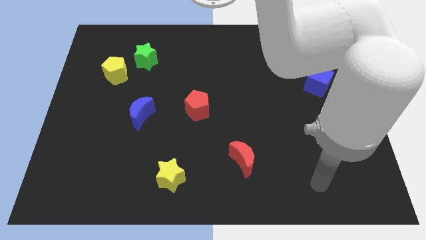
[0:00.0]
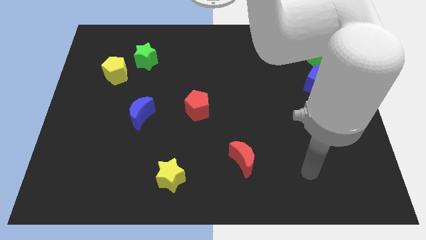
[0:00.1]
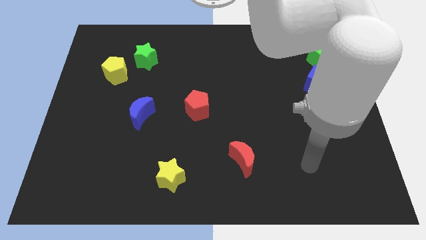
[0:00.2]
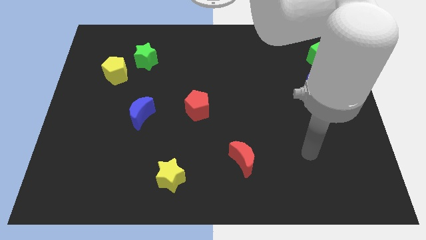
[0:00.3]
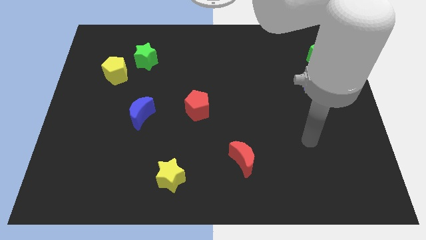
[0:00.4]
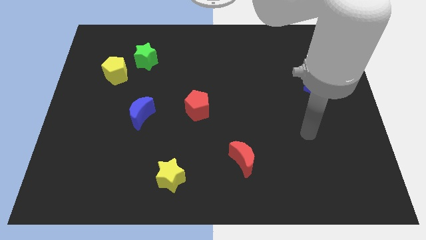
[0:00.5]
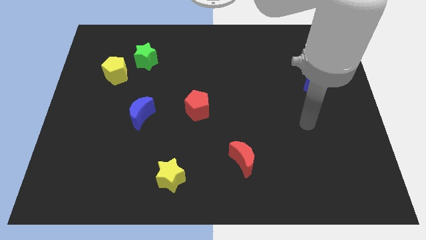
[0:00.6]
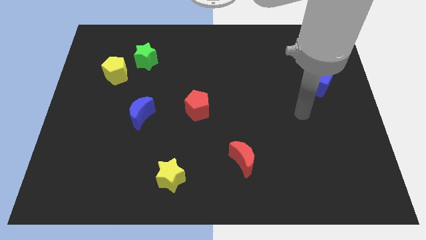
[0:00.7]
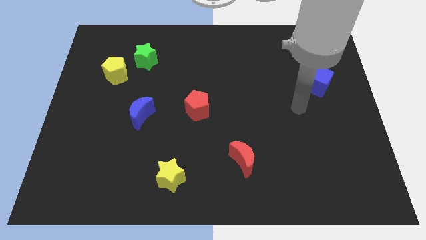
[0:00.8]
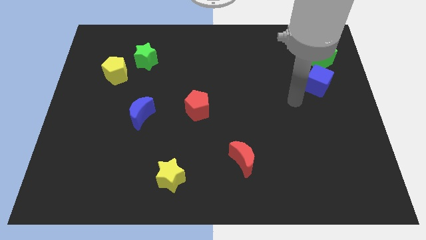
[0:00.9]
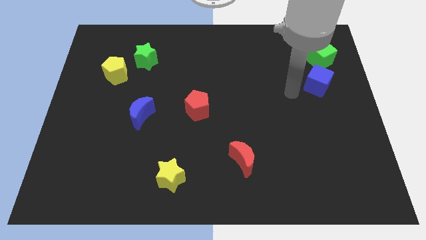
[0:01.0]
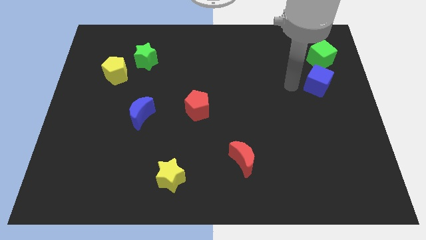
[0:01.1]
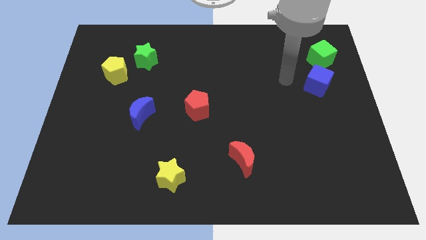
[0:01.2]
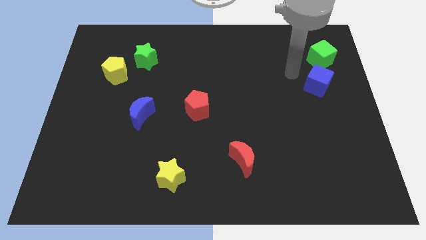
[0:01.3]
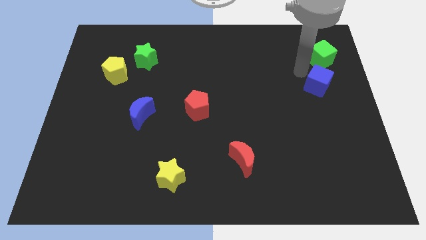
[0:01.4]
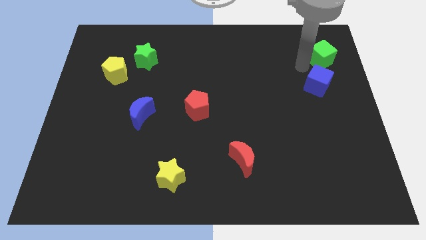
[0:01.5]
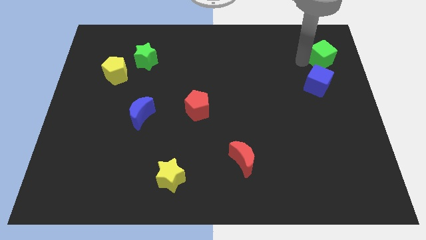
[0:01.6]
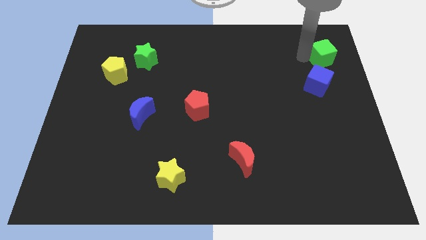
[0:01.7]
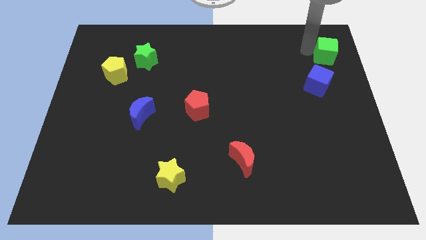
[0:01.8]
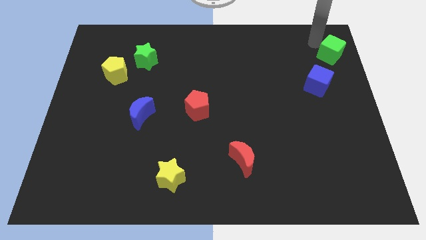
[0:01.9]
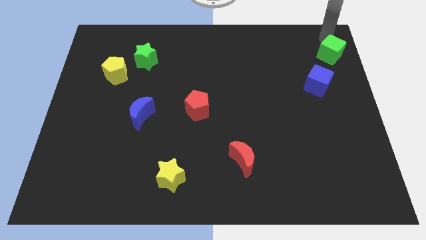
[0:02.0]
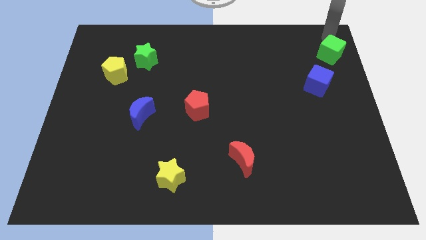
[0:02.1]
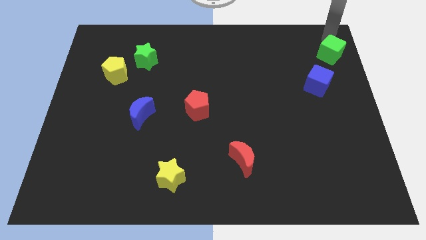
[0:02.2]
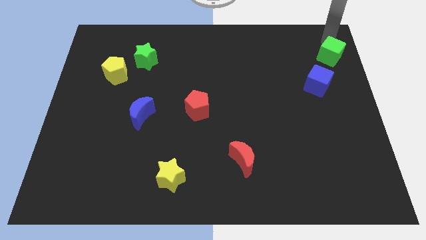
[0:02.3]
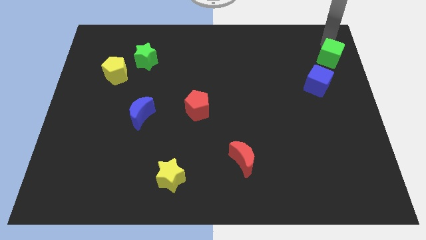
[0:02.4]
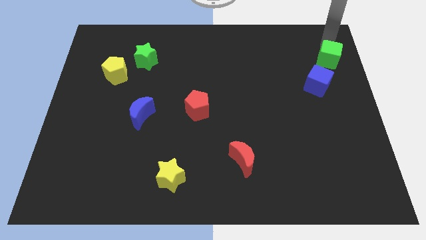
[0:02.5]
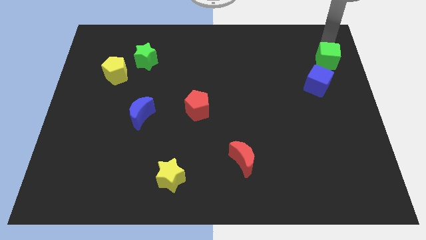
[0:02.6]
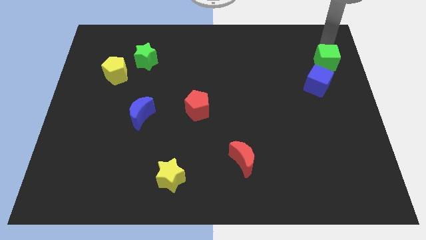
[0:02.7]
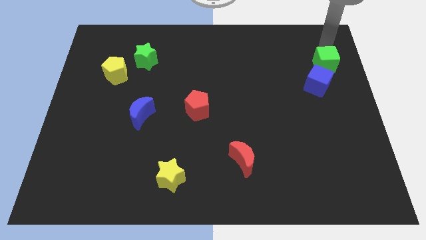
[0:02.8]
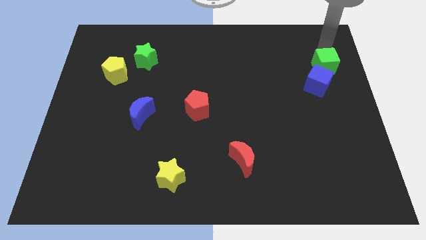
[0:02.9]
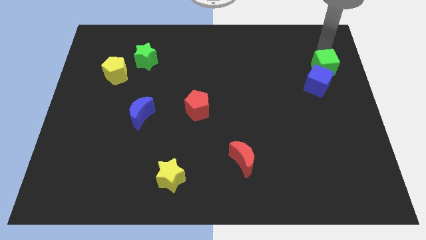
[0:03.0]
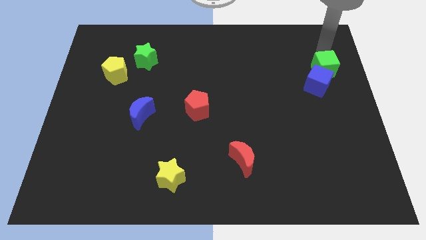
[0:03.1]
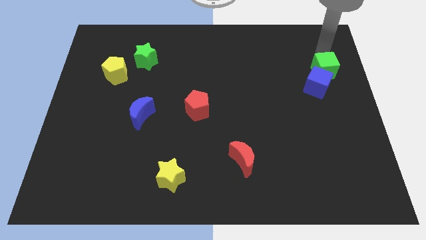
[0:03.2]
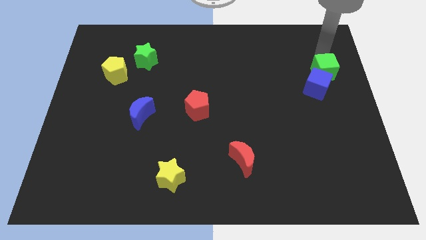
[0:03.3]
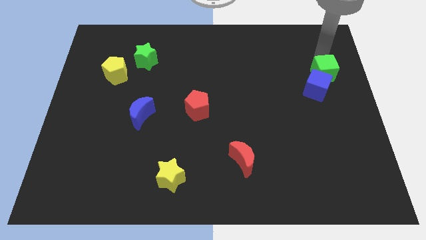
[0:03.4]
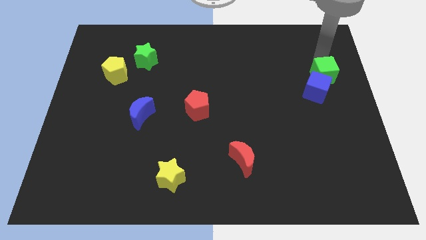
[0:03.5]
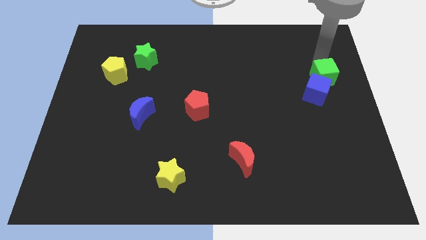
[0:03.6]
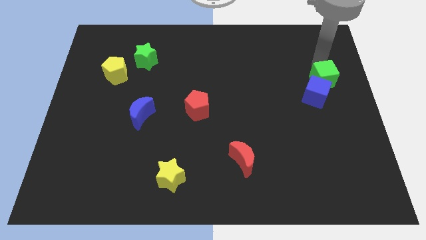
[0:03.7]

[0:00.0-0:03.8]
slide the green cube somewhat down

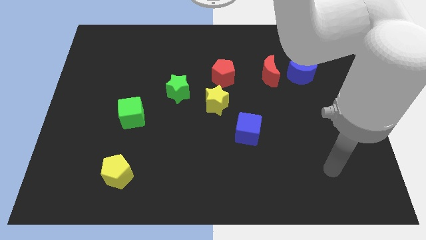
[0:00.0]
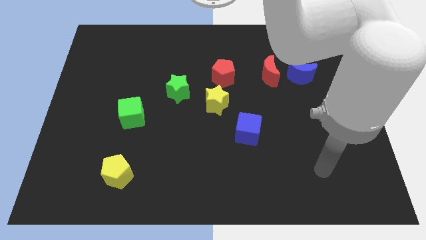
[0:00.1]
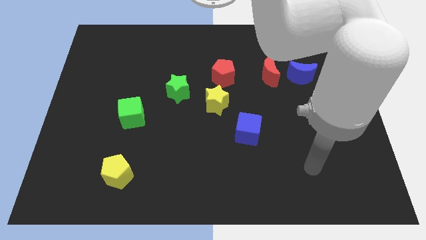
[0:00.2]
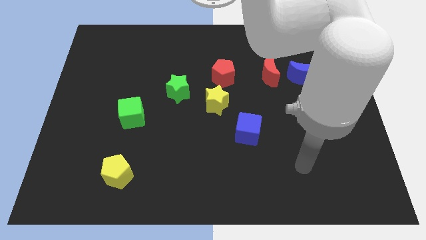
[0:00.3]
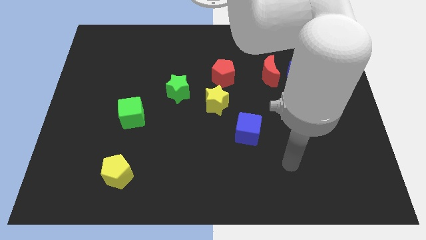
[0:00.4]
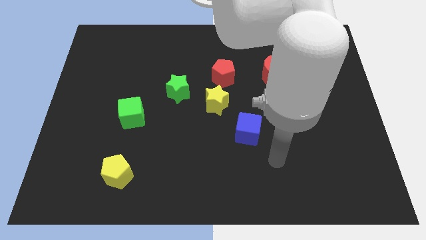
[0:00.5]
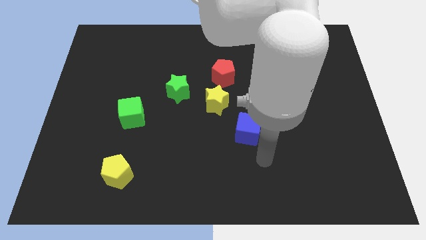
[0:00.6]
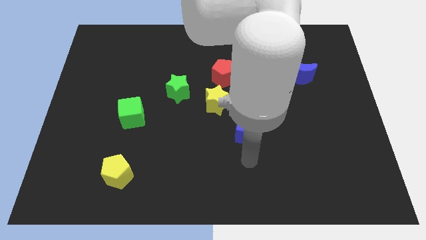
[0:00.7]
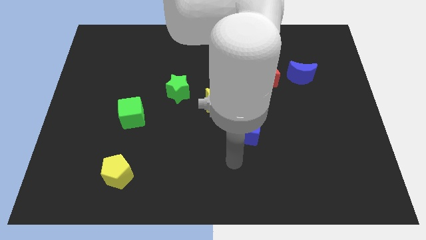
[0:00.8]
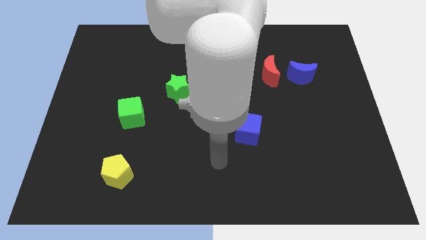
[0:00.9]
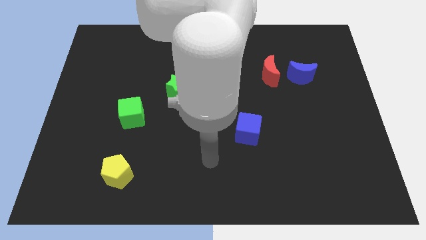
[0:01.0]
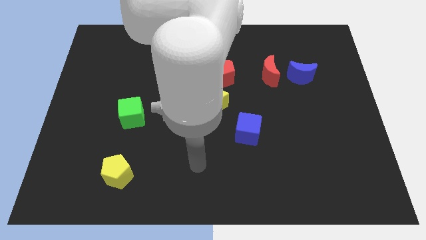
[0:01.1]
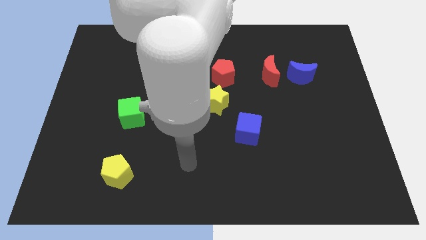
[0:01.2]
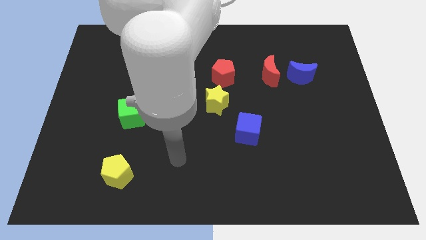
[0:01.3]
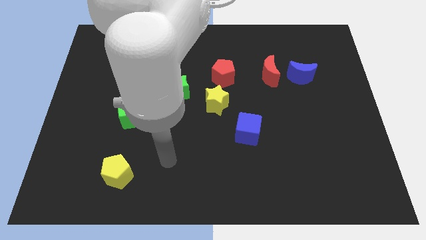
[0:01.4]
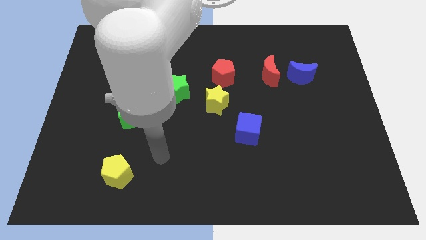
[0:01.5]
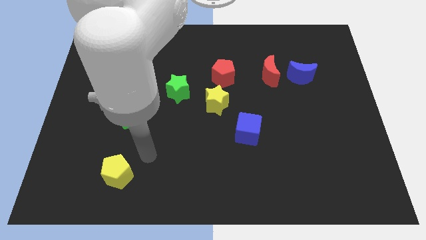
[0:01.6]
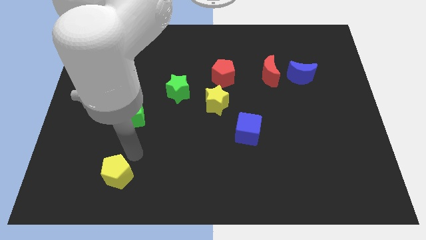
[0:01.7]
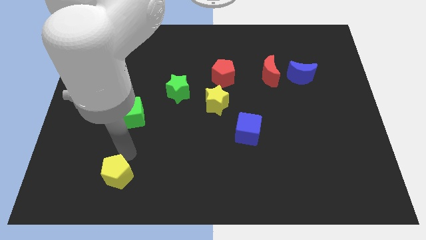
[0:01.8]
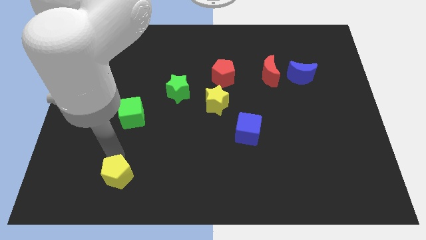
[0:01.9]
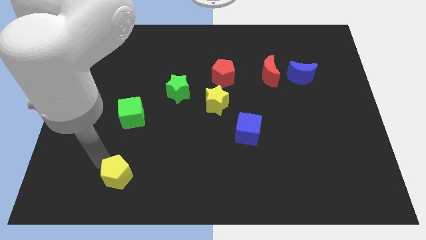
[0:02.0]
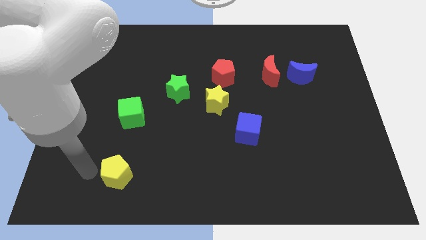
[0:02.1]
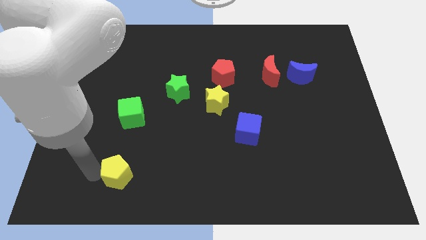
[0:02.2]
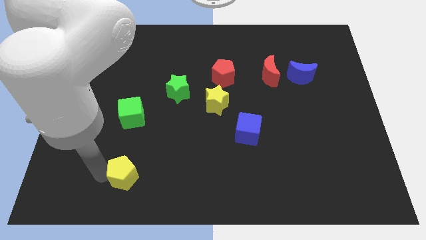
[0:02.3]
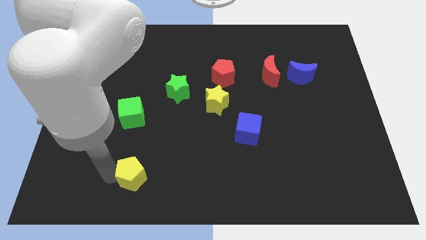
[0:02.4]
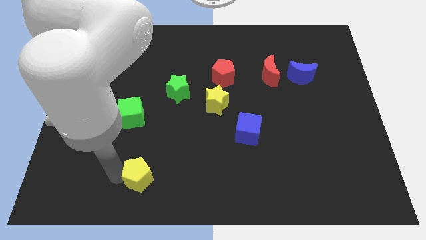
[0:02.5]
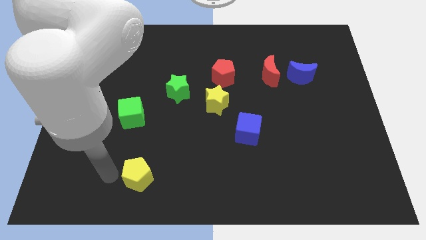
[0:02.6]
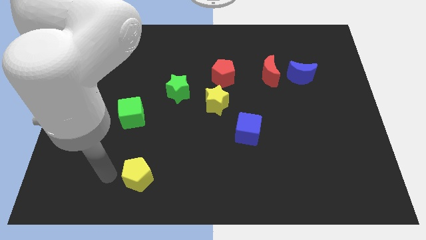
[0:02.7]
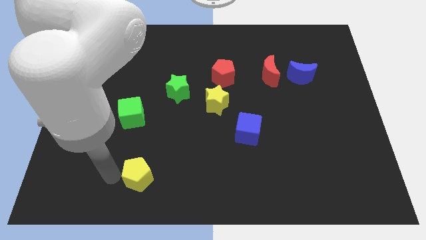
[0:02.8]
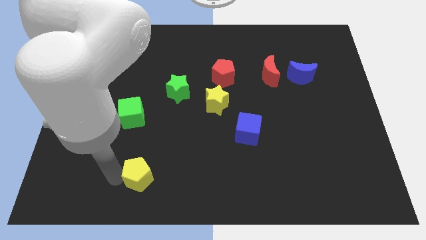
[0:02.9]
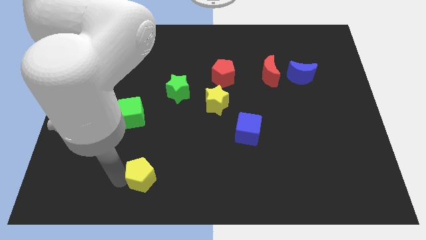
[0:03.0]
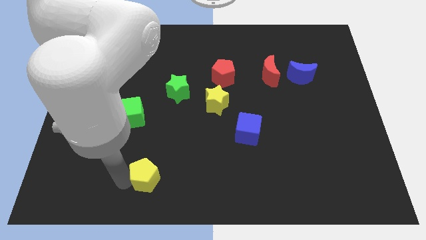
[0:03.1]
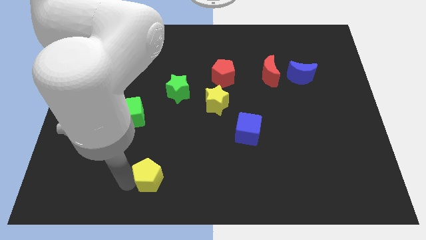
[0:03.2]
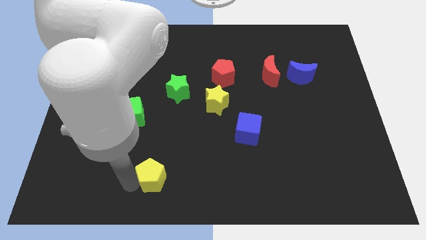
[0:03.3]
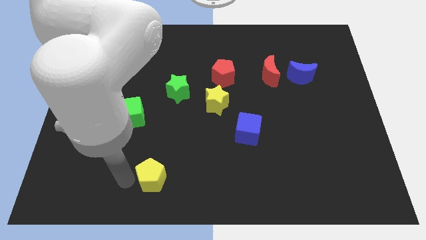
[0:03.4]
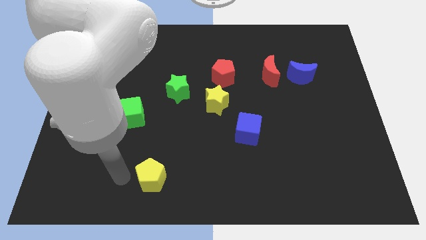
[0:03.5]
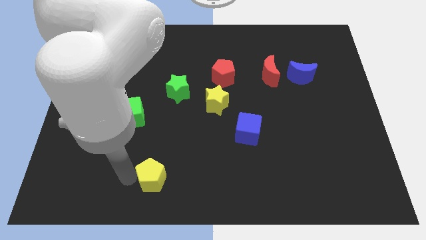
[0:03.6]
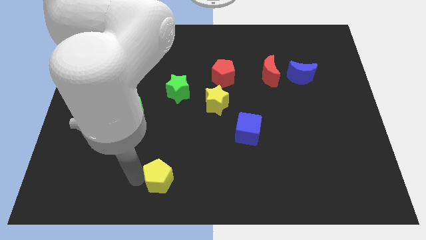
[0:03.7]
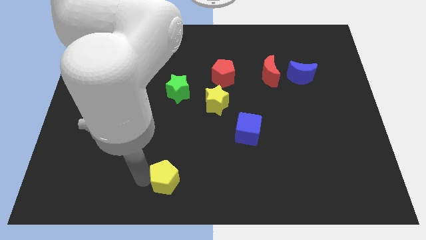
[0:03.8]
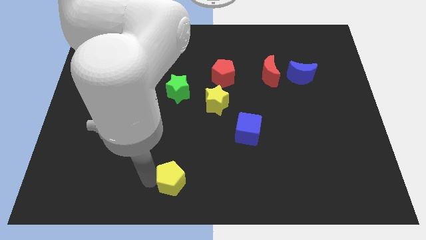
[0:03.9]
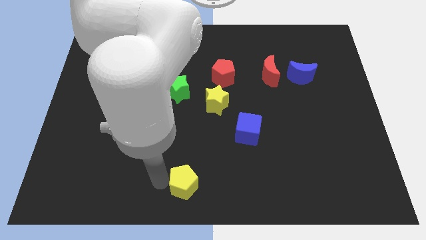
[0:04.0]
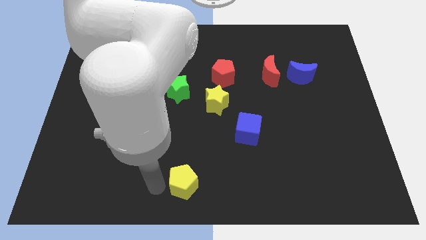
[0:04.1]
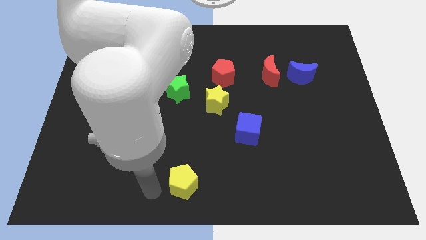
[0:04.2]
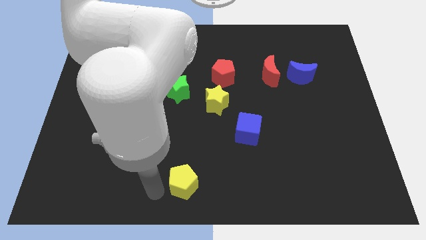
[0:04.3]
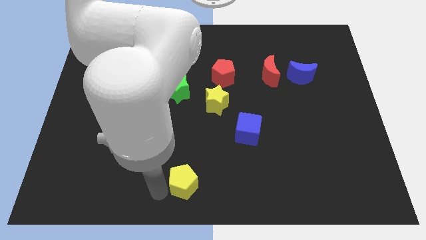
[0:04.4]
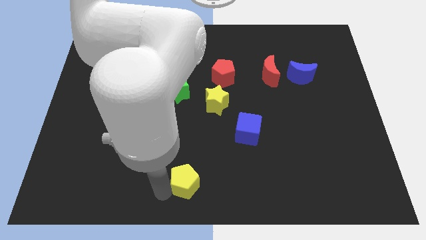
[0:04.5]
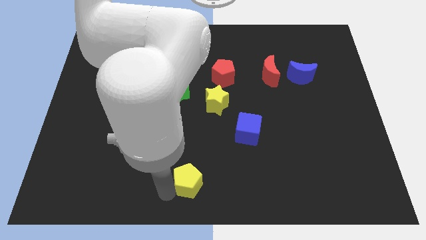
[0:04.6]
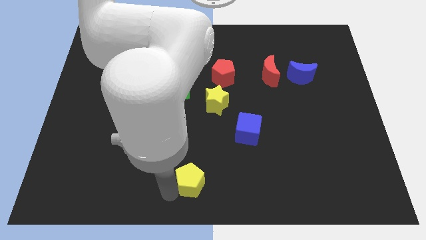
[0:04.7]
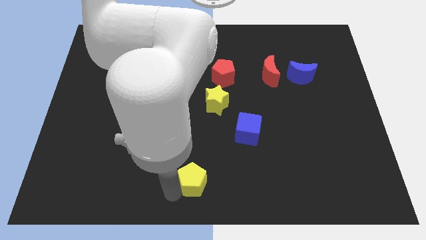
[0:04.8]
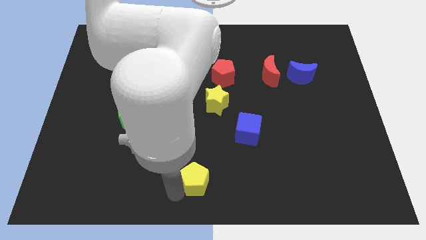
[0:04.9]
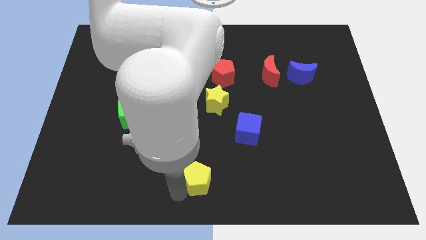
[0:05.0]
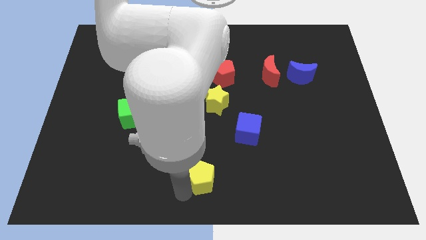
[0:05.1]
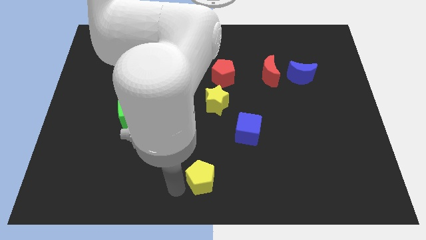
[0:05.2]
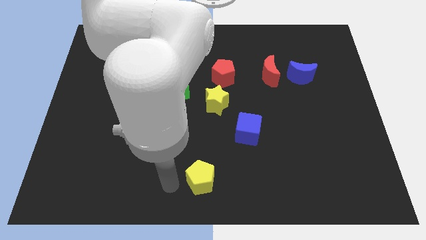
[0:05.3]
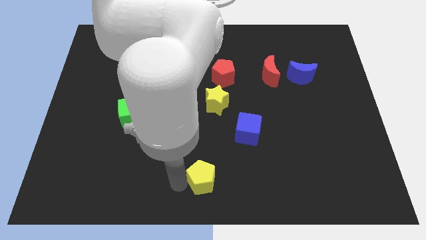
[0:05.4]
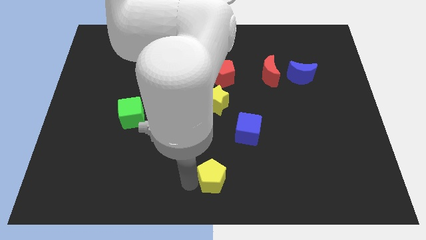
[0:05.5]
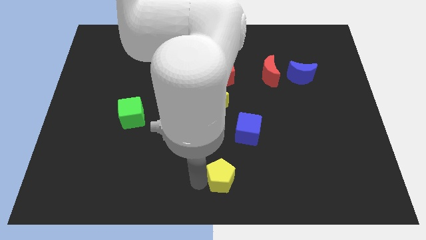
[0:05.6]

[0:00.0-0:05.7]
slide the yellow pentagon to the right
